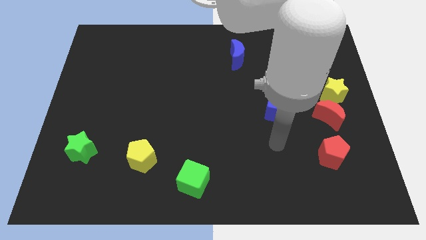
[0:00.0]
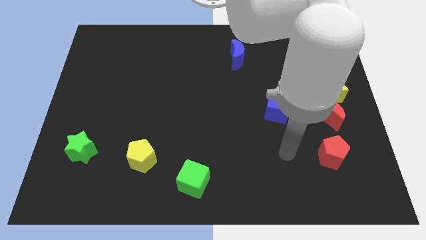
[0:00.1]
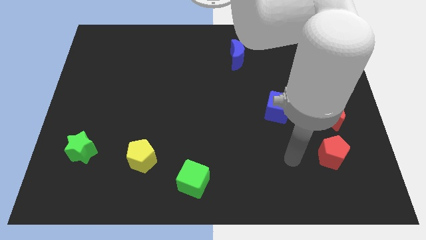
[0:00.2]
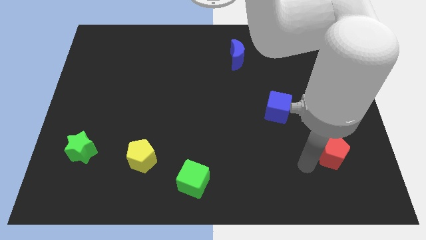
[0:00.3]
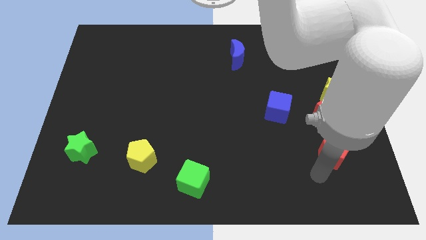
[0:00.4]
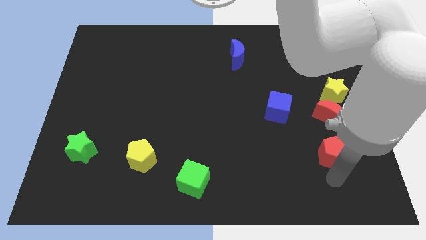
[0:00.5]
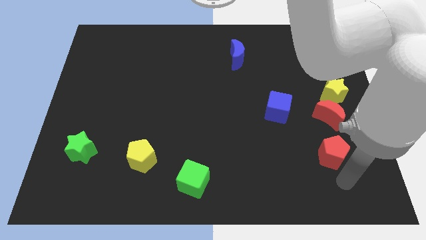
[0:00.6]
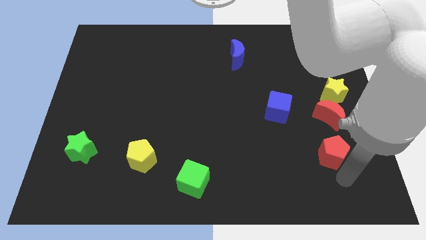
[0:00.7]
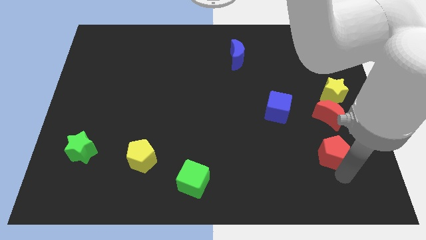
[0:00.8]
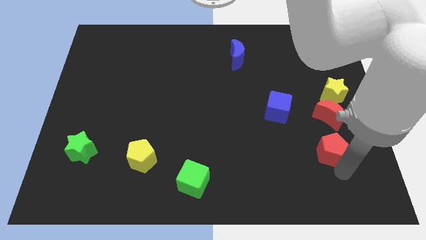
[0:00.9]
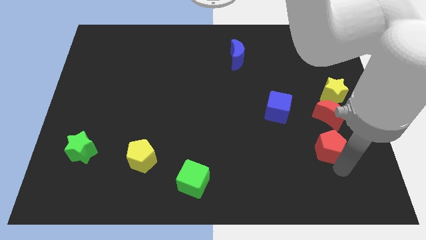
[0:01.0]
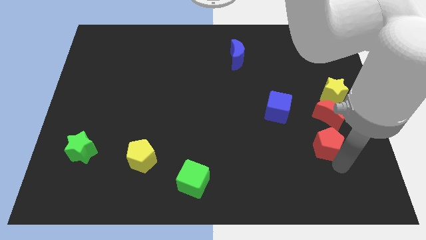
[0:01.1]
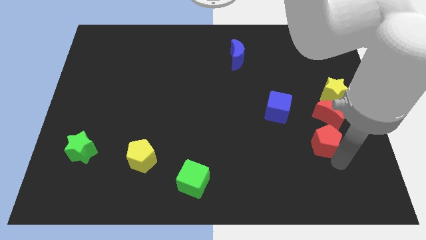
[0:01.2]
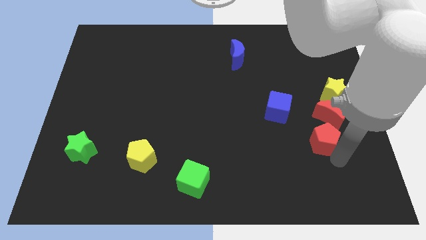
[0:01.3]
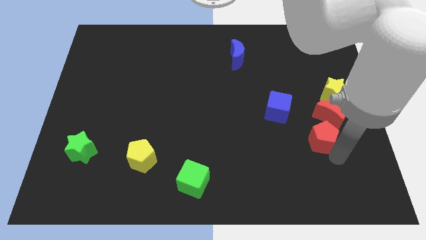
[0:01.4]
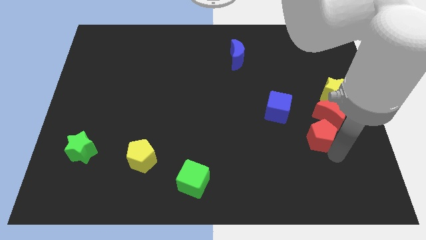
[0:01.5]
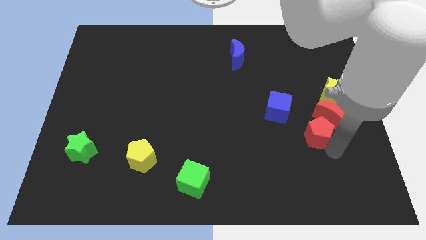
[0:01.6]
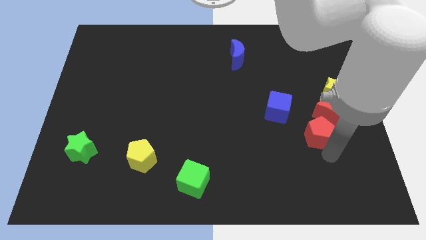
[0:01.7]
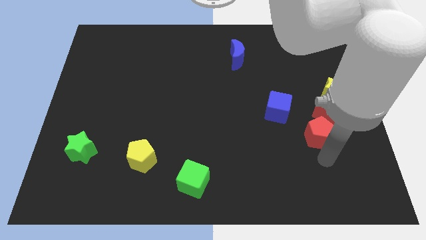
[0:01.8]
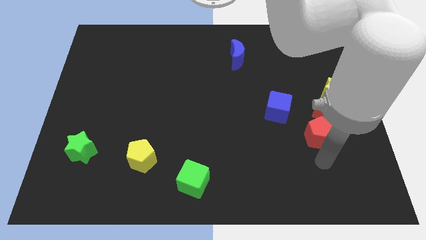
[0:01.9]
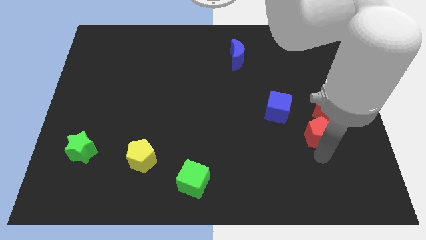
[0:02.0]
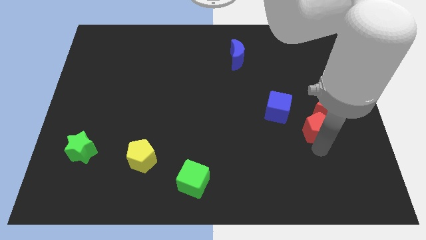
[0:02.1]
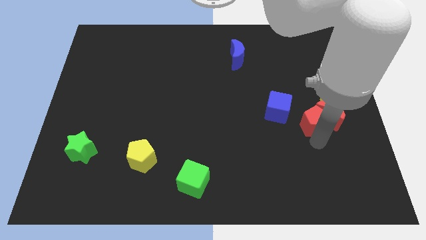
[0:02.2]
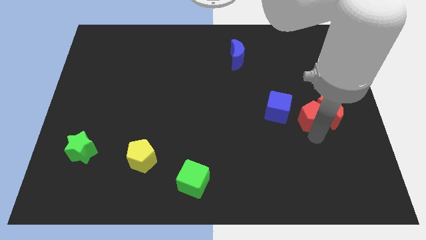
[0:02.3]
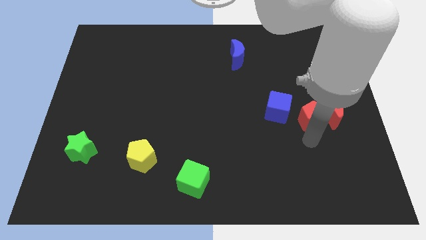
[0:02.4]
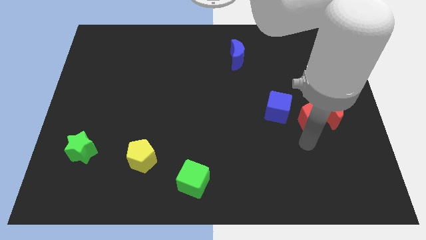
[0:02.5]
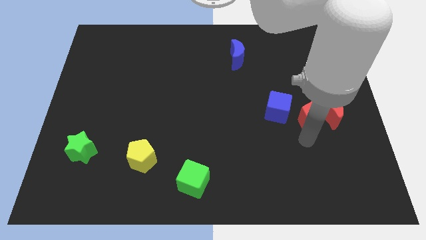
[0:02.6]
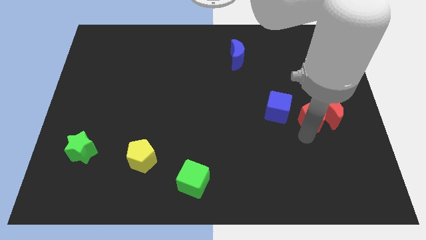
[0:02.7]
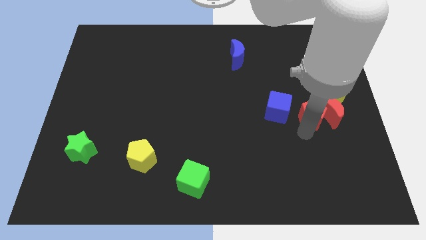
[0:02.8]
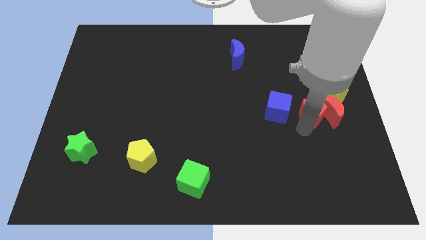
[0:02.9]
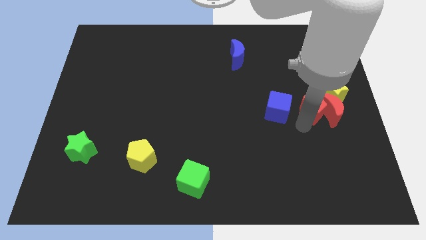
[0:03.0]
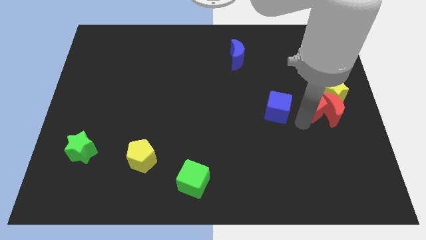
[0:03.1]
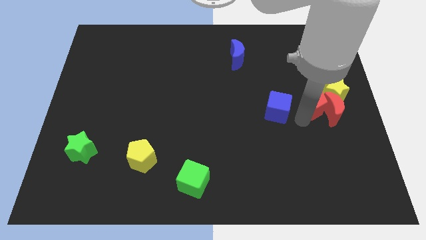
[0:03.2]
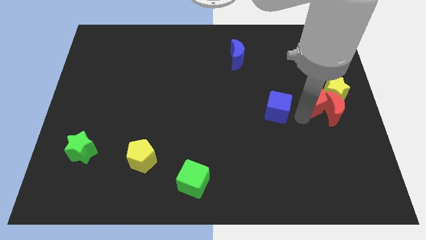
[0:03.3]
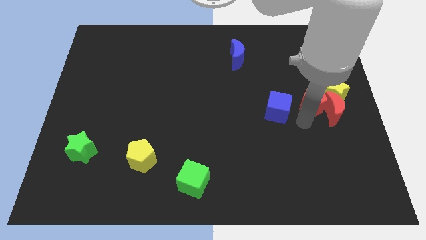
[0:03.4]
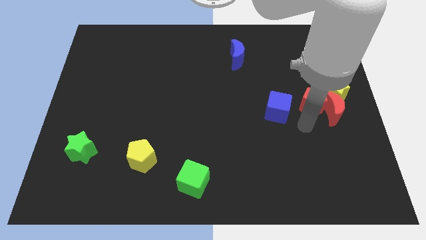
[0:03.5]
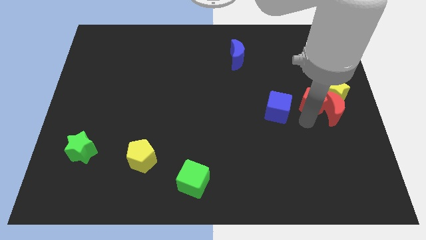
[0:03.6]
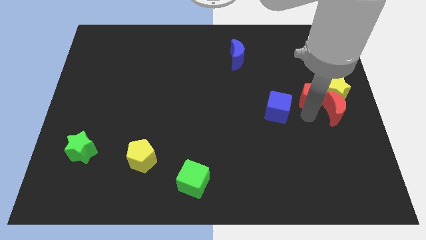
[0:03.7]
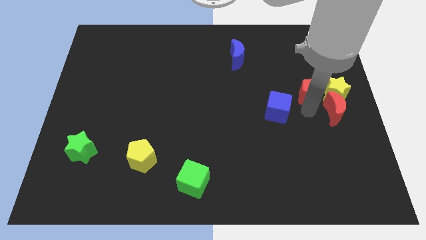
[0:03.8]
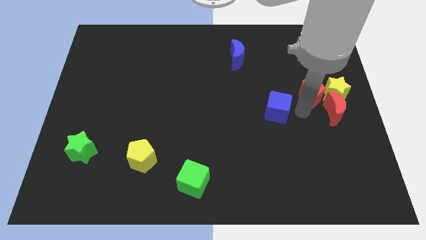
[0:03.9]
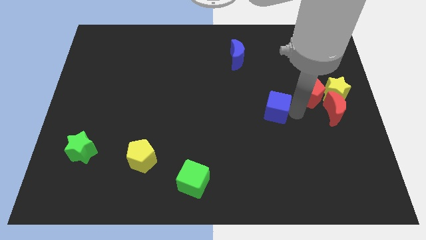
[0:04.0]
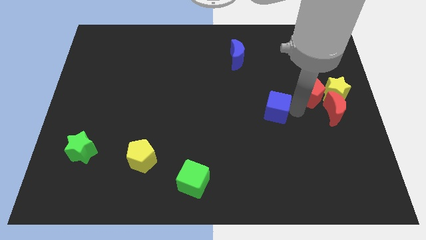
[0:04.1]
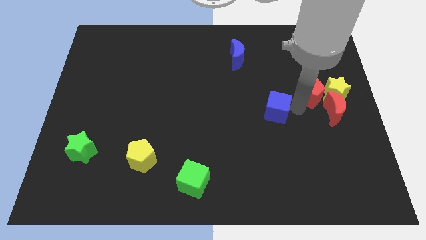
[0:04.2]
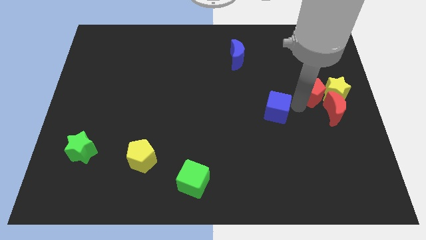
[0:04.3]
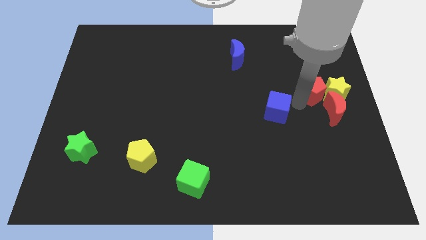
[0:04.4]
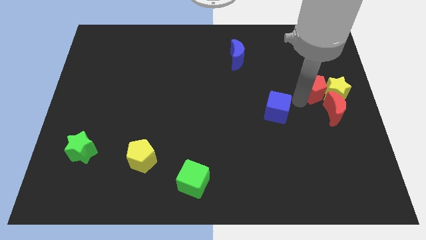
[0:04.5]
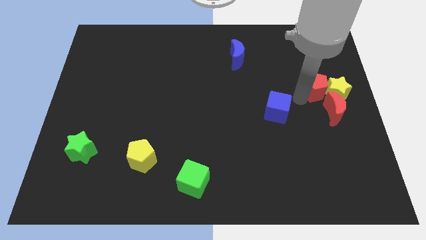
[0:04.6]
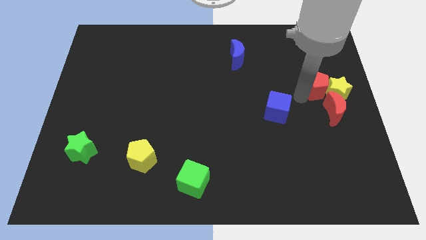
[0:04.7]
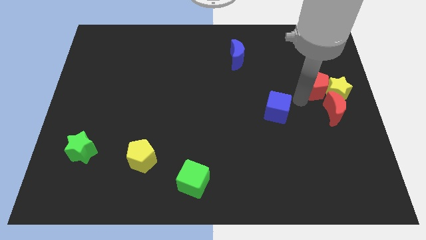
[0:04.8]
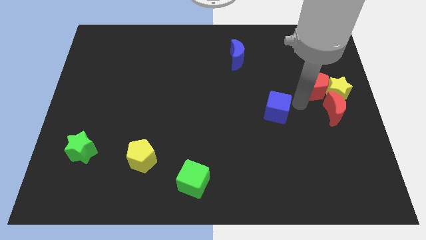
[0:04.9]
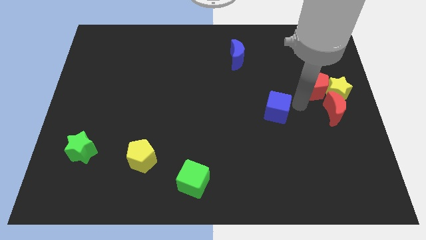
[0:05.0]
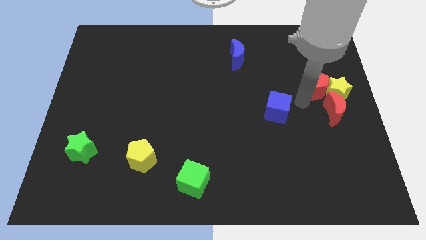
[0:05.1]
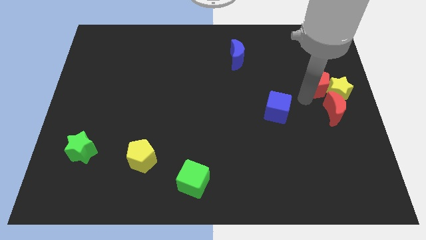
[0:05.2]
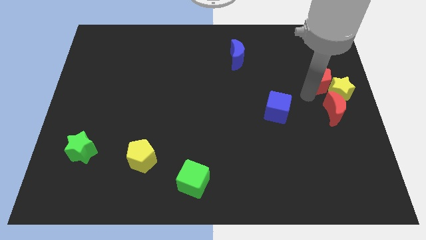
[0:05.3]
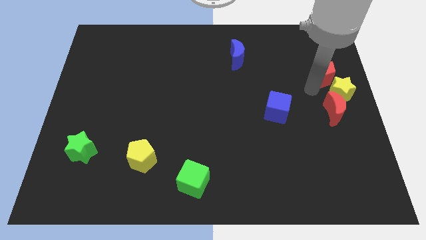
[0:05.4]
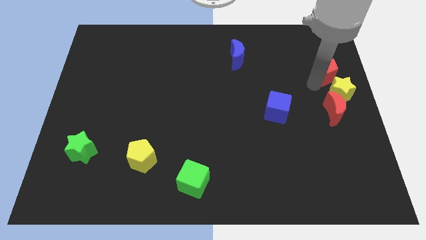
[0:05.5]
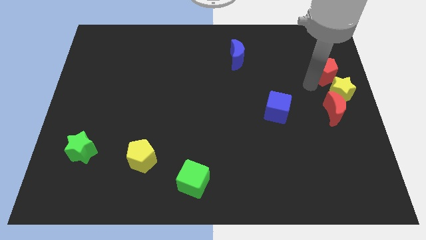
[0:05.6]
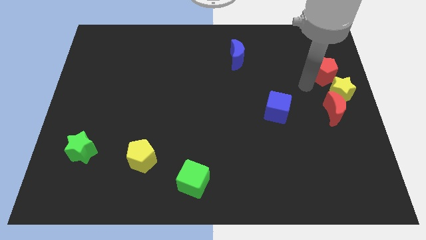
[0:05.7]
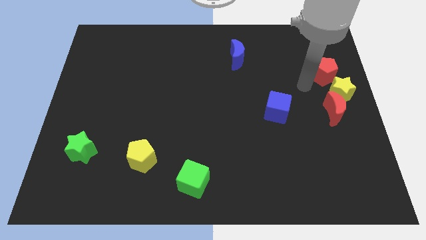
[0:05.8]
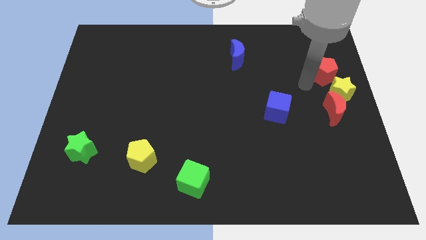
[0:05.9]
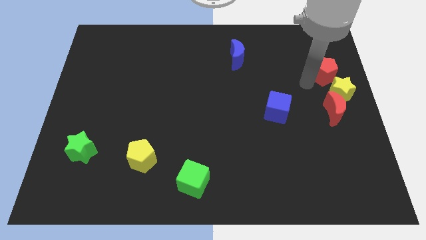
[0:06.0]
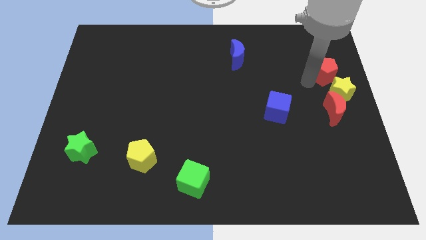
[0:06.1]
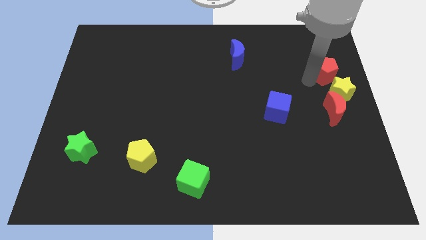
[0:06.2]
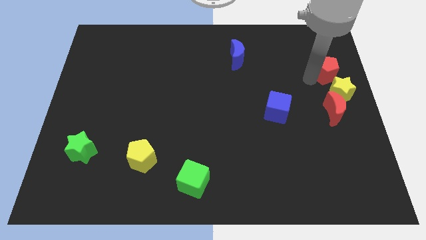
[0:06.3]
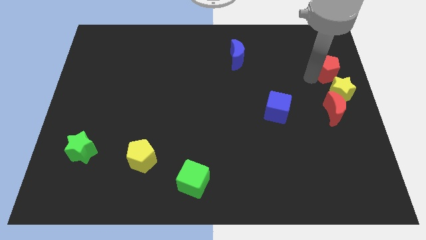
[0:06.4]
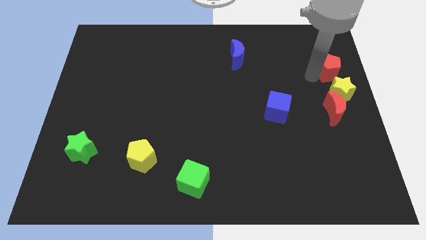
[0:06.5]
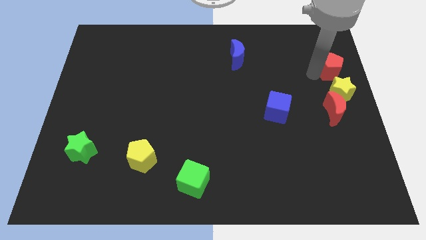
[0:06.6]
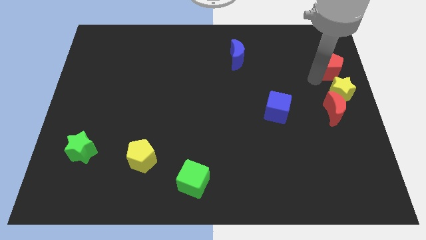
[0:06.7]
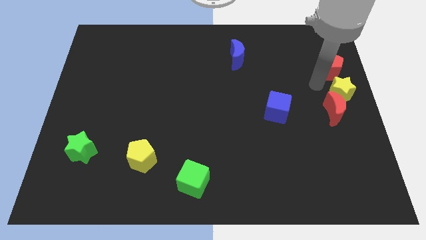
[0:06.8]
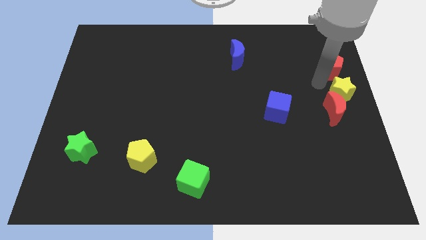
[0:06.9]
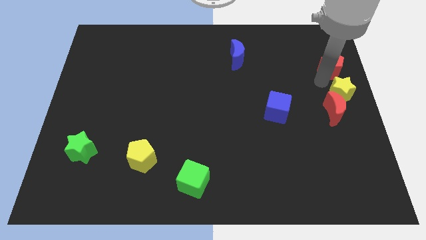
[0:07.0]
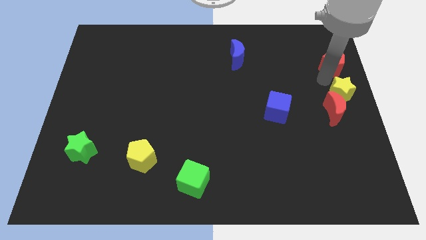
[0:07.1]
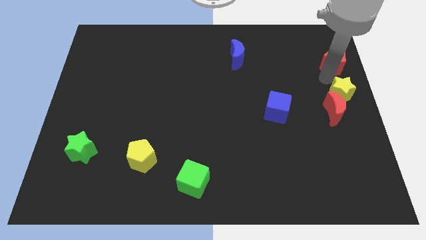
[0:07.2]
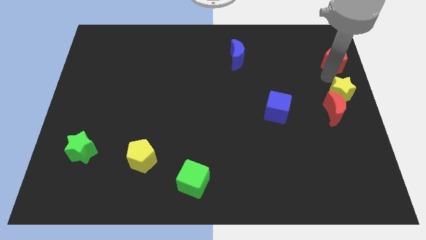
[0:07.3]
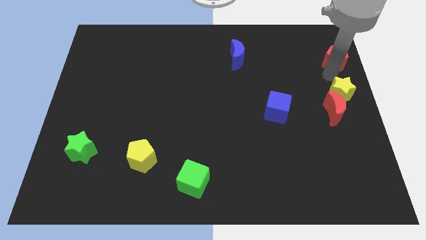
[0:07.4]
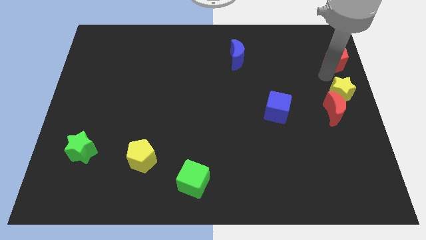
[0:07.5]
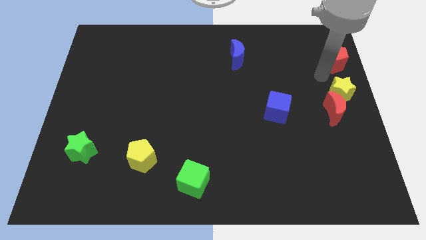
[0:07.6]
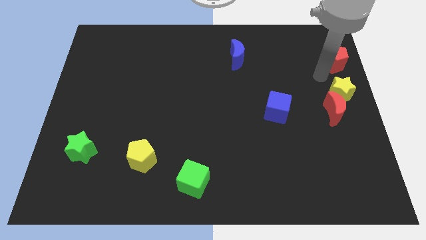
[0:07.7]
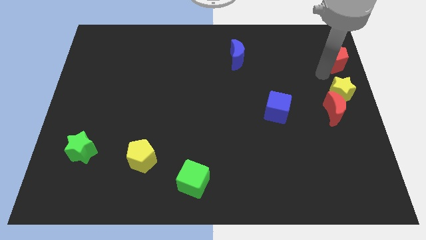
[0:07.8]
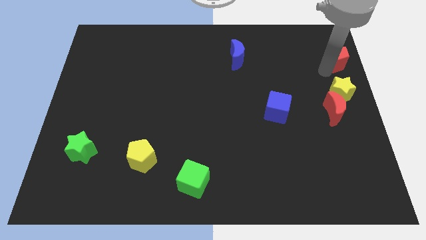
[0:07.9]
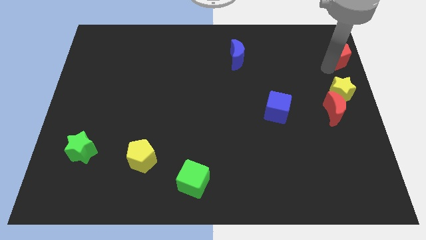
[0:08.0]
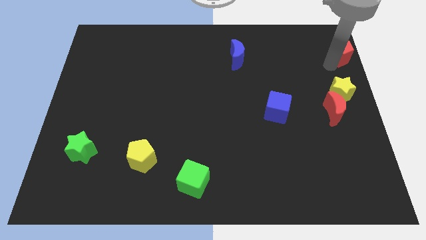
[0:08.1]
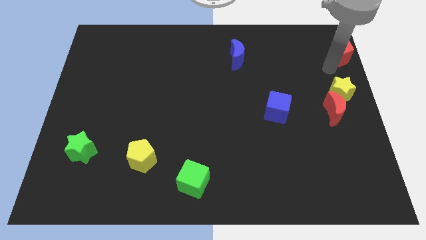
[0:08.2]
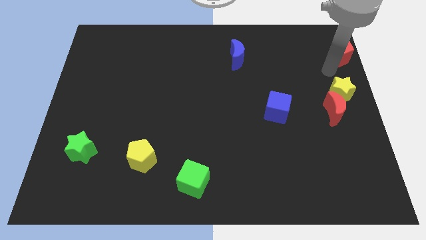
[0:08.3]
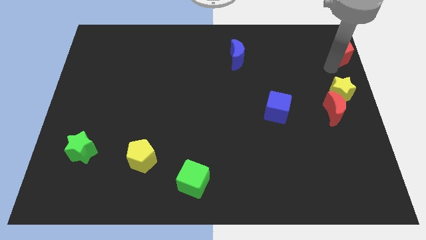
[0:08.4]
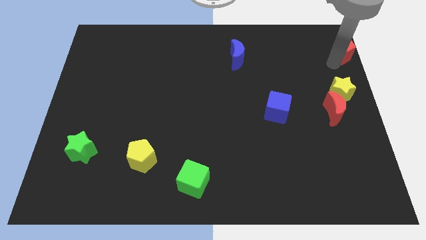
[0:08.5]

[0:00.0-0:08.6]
move the red pentagon to the top right of the board
